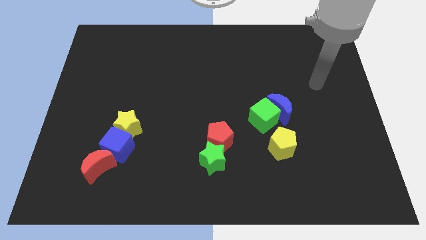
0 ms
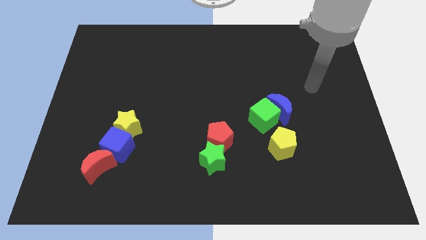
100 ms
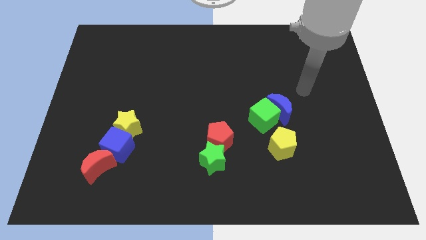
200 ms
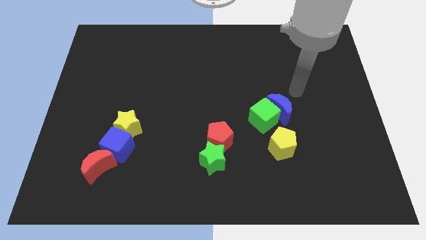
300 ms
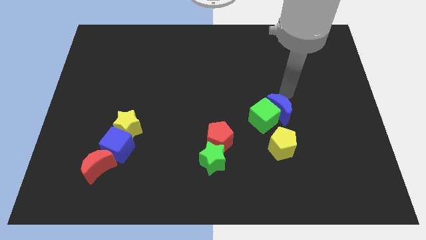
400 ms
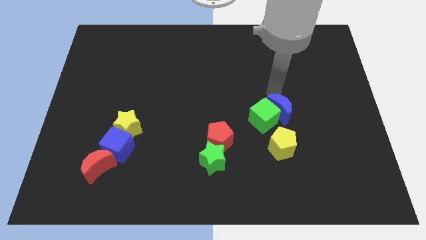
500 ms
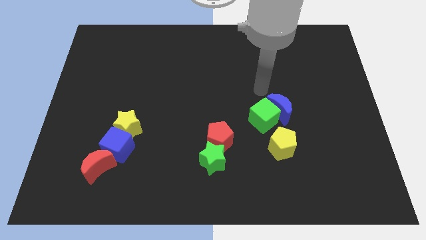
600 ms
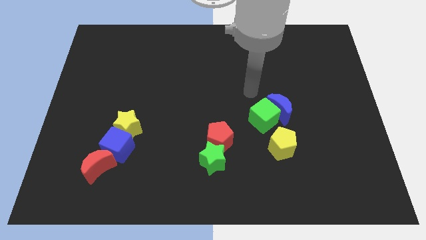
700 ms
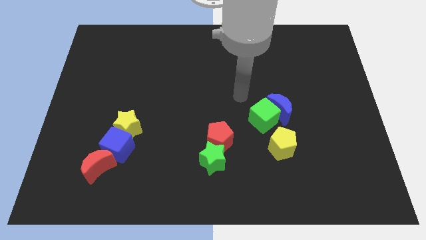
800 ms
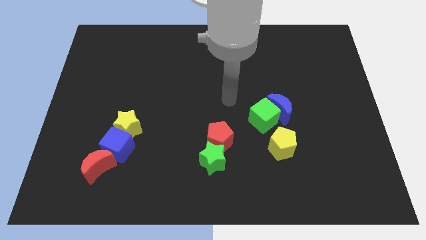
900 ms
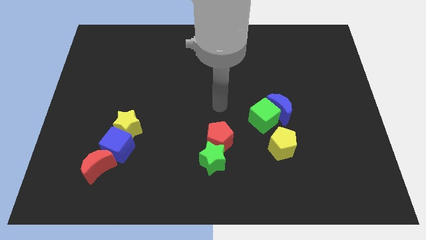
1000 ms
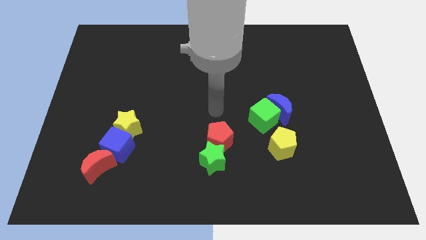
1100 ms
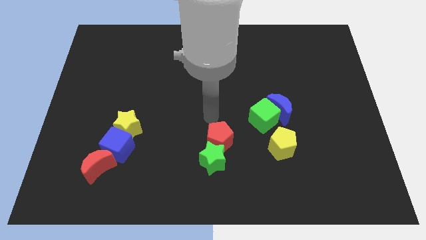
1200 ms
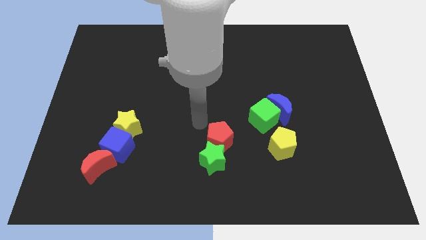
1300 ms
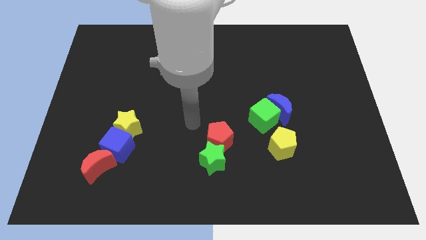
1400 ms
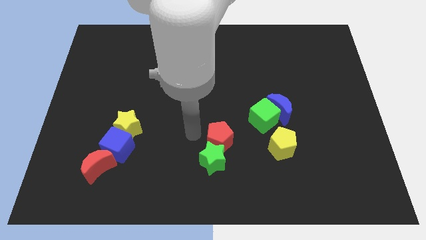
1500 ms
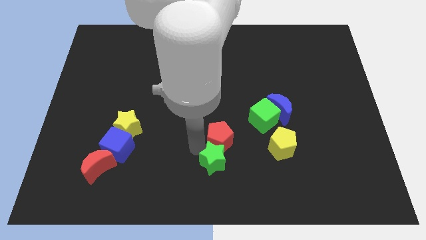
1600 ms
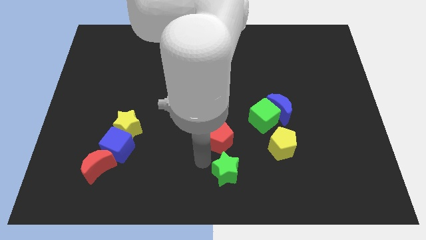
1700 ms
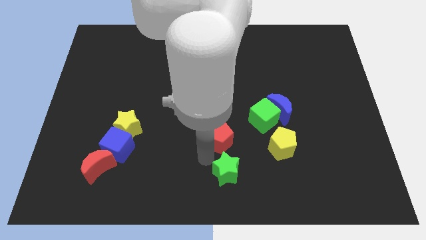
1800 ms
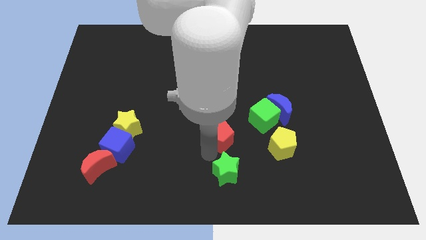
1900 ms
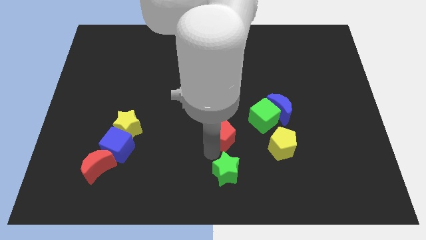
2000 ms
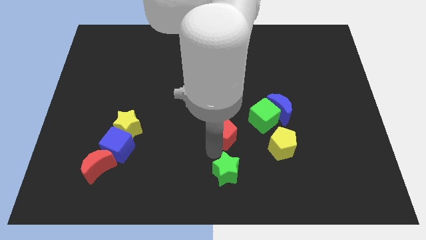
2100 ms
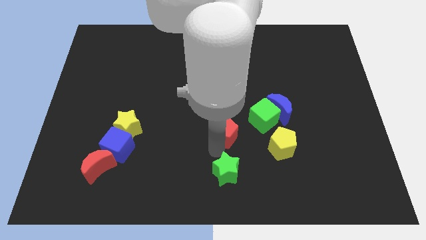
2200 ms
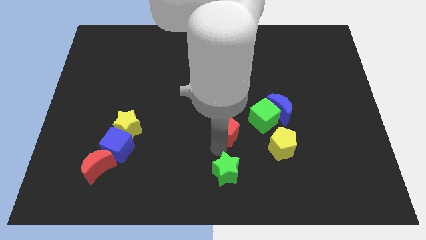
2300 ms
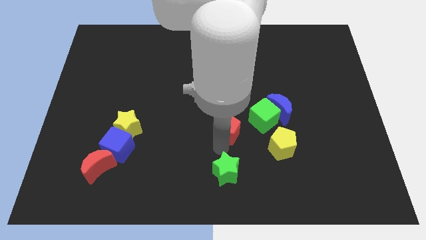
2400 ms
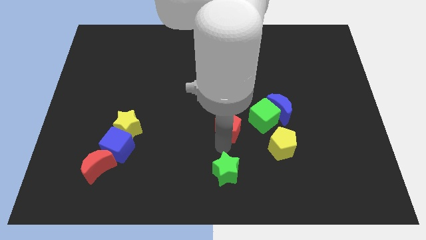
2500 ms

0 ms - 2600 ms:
move the red pentagon away from the green star

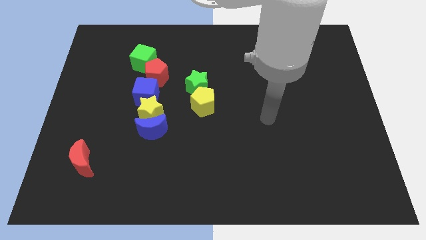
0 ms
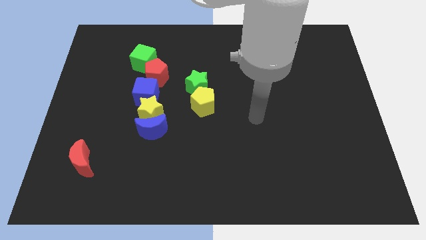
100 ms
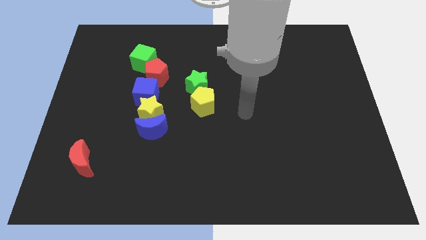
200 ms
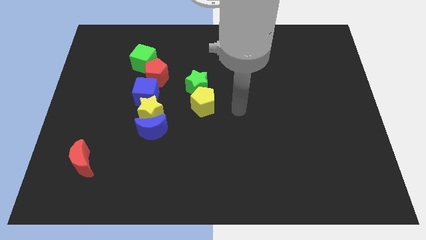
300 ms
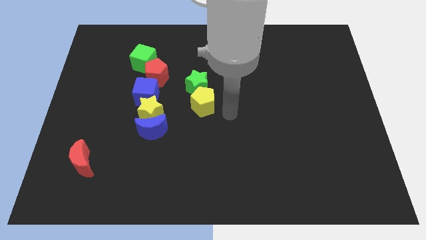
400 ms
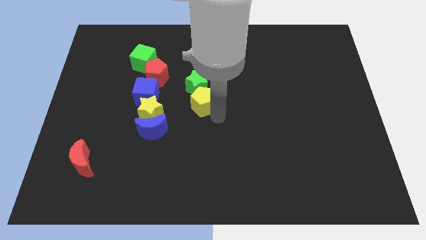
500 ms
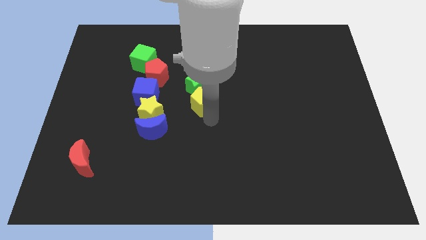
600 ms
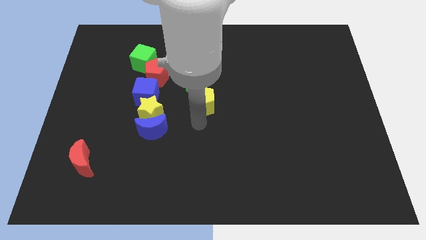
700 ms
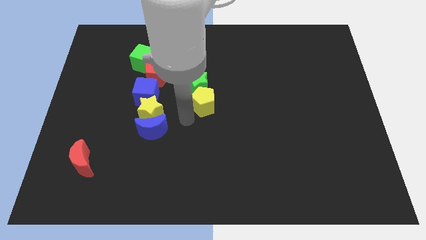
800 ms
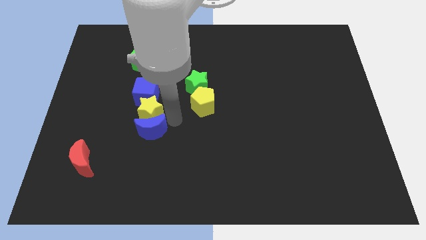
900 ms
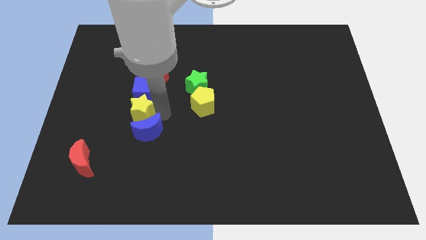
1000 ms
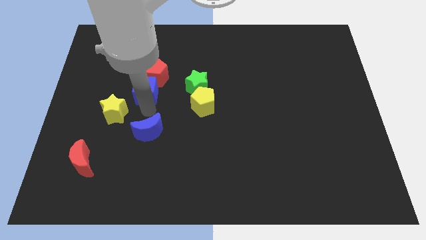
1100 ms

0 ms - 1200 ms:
move the blue moon away from the yellow star

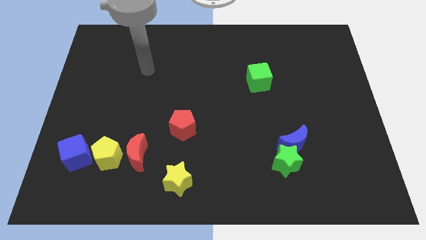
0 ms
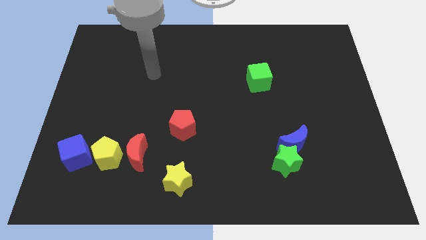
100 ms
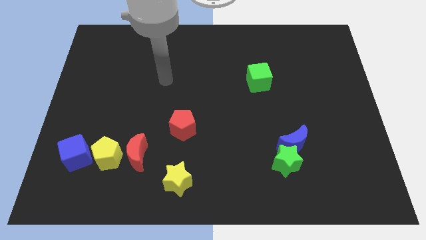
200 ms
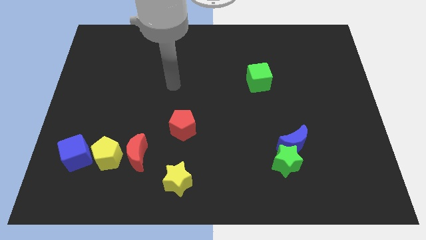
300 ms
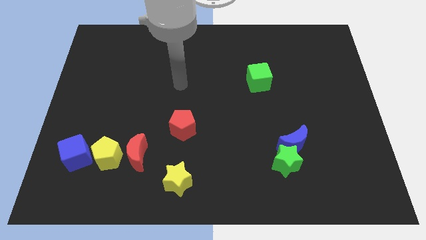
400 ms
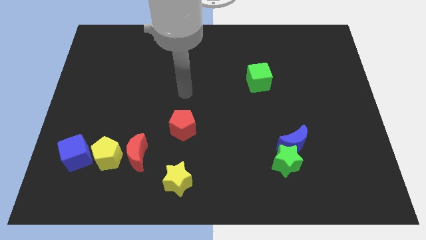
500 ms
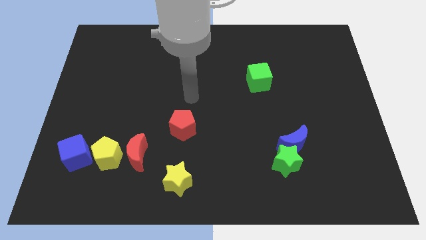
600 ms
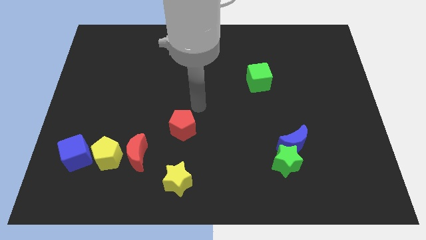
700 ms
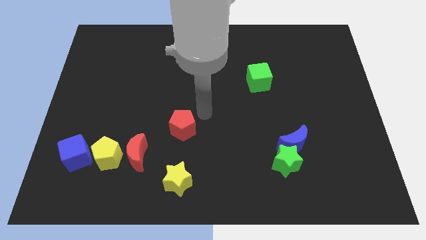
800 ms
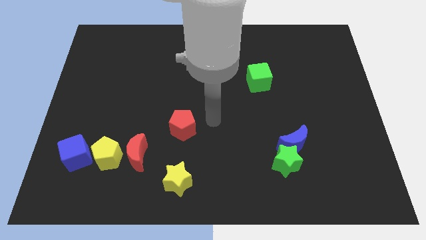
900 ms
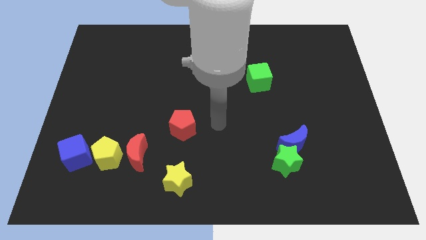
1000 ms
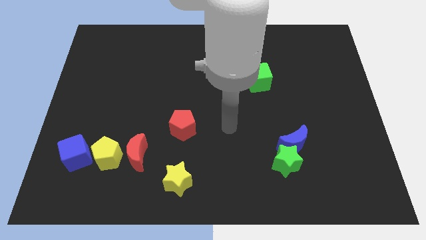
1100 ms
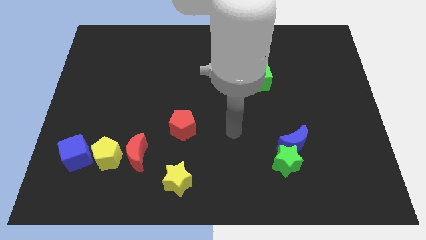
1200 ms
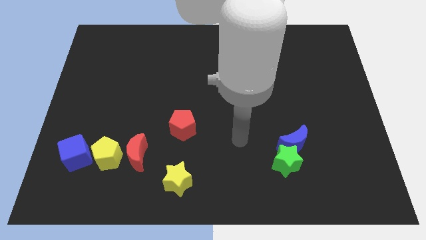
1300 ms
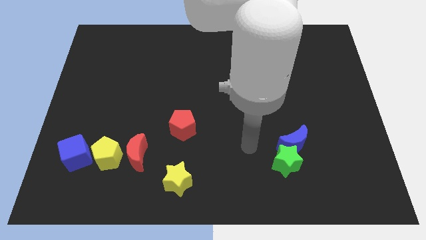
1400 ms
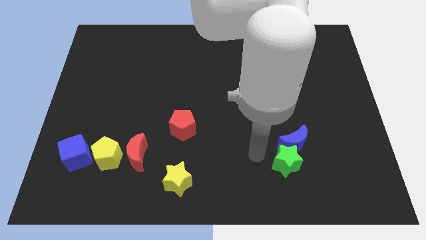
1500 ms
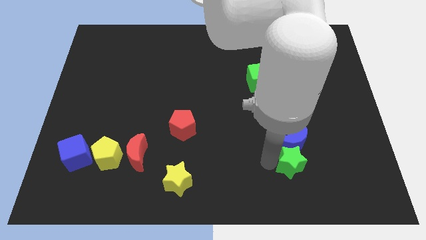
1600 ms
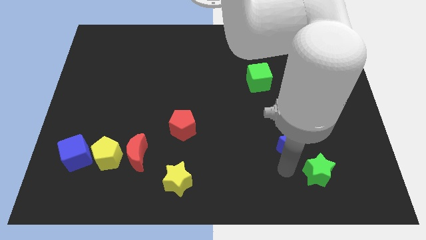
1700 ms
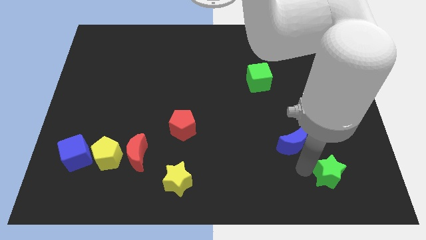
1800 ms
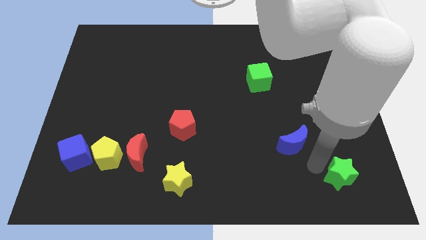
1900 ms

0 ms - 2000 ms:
separate the blue moon from the green star

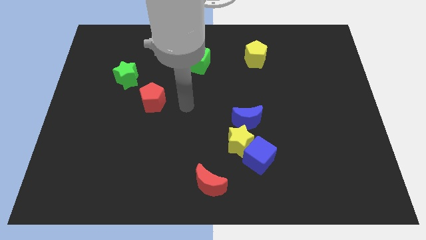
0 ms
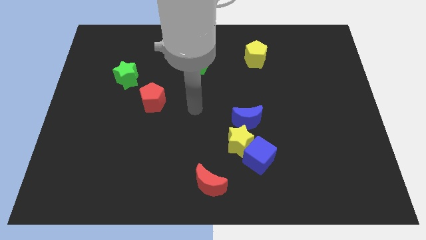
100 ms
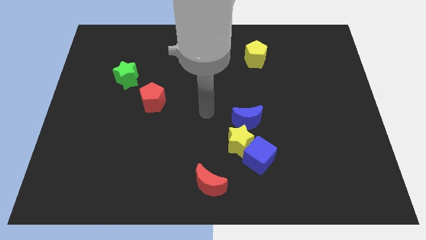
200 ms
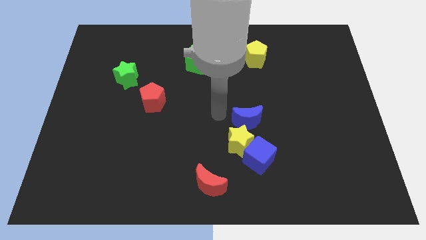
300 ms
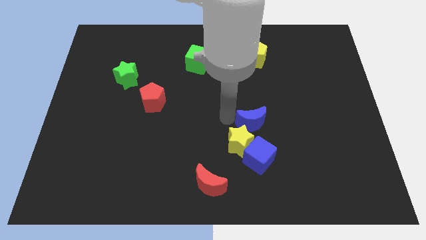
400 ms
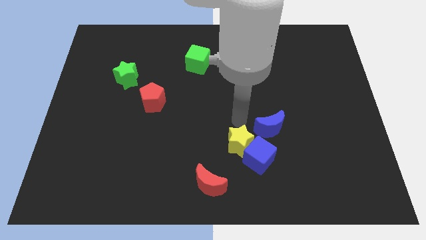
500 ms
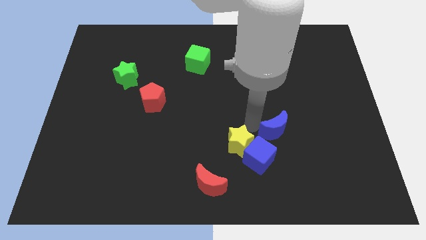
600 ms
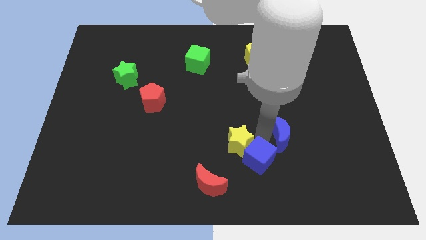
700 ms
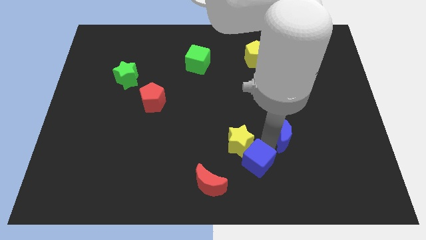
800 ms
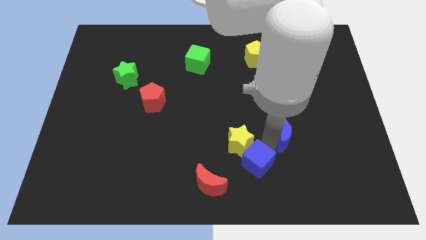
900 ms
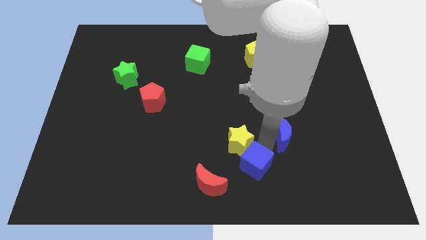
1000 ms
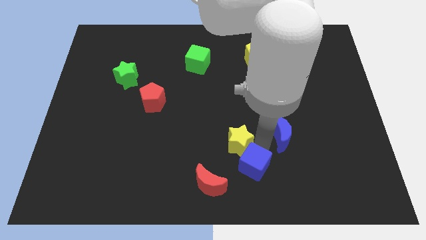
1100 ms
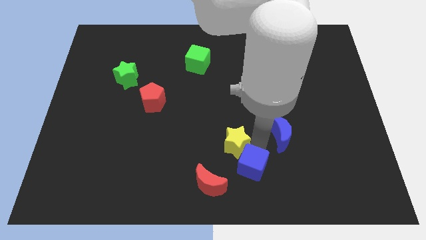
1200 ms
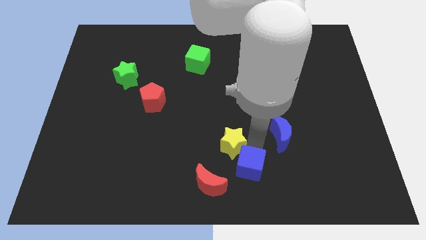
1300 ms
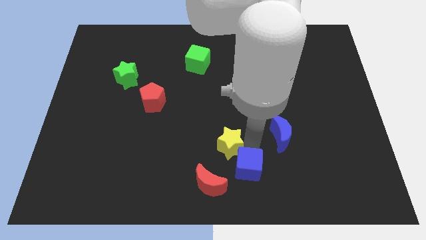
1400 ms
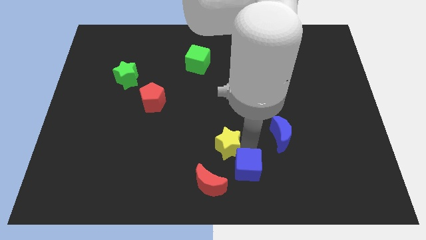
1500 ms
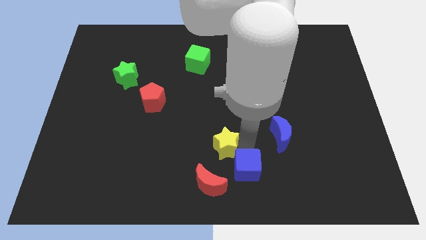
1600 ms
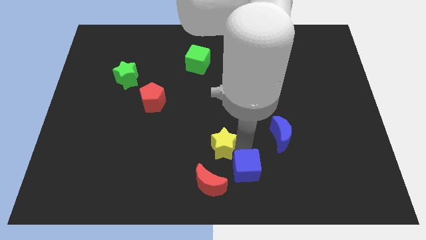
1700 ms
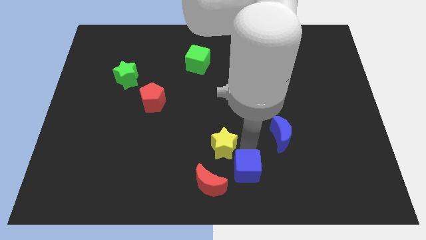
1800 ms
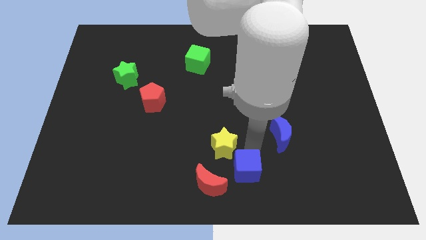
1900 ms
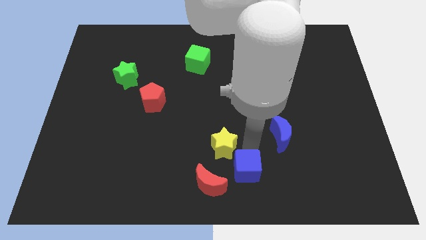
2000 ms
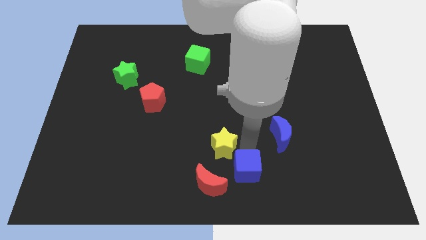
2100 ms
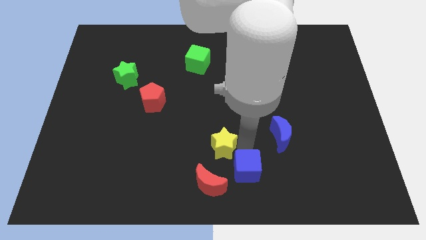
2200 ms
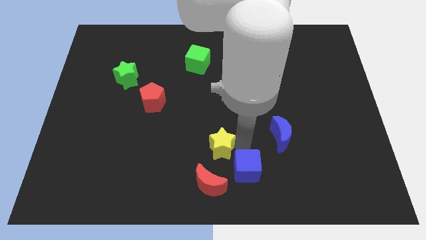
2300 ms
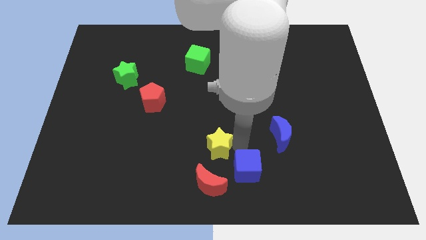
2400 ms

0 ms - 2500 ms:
separate the yellow star from the blue cube and blue moon

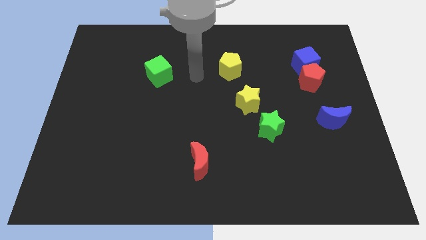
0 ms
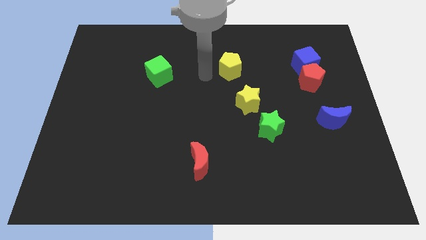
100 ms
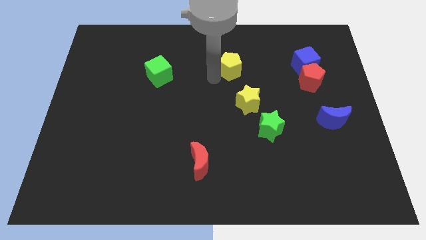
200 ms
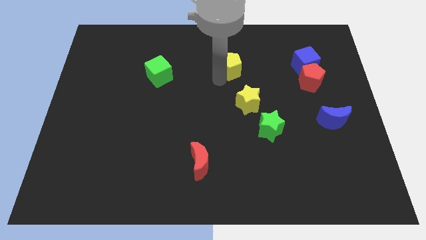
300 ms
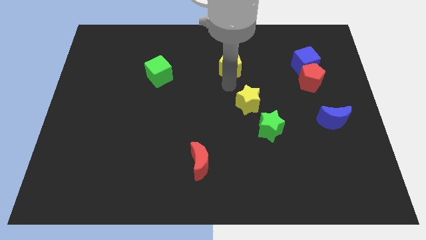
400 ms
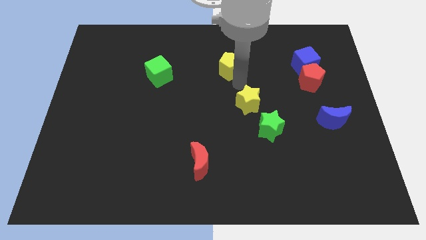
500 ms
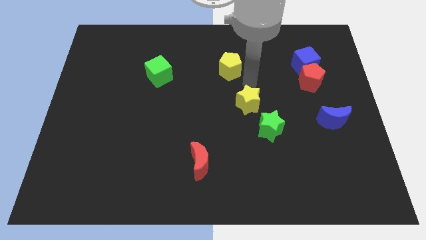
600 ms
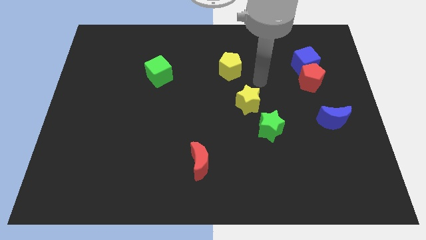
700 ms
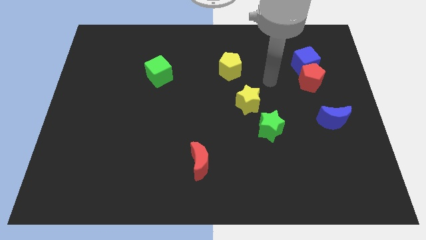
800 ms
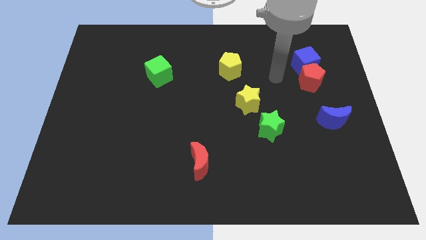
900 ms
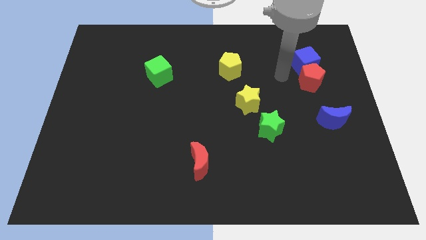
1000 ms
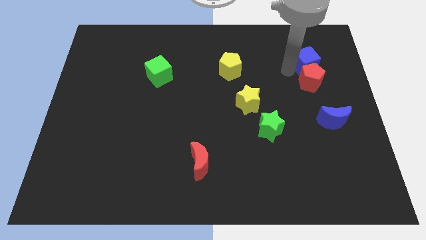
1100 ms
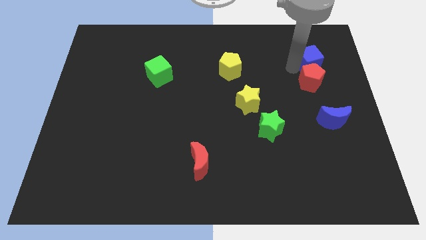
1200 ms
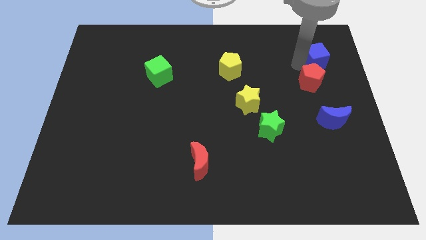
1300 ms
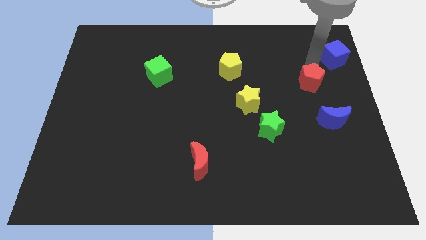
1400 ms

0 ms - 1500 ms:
move the red pentagon away from the blue cube
